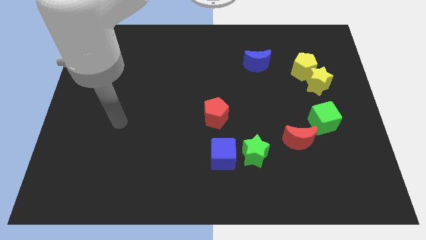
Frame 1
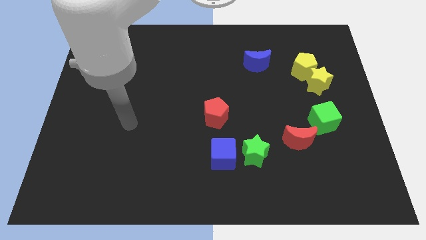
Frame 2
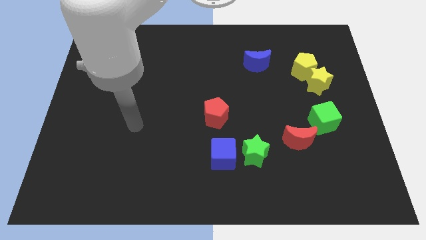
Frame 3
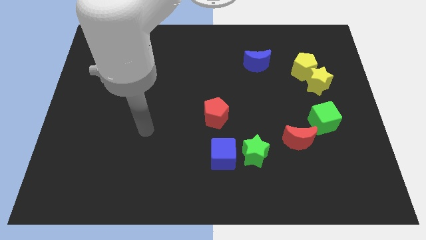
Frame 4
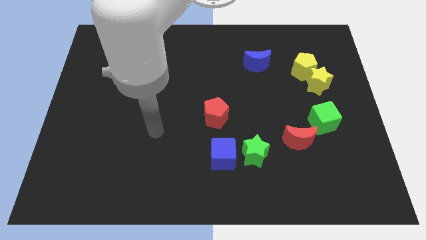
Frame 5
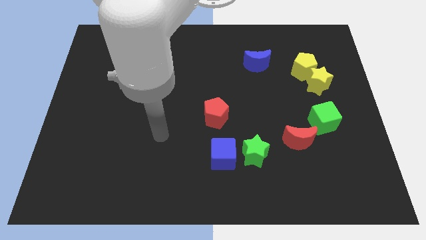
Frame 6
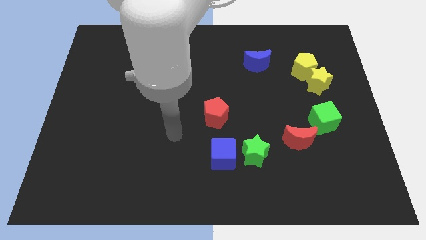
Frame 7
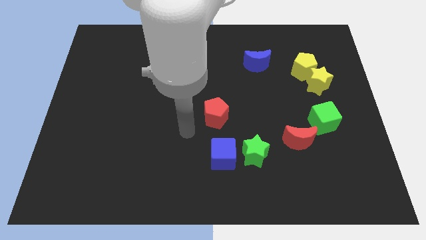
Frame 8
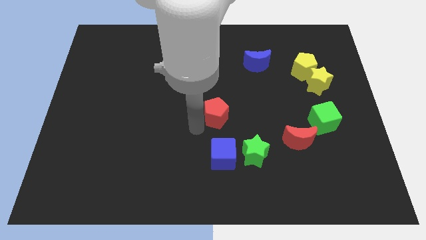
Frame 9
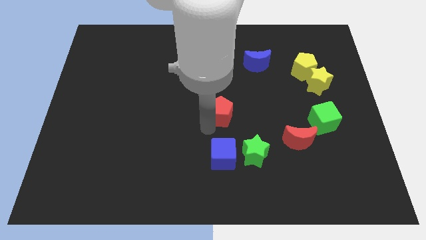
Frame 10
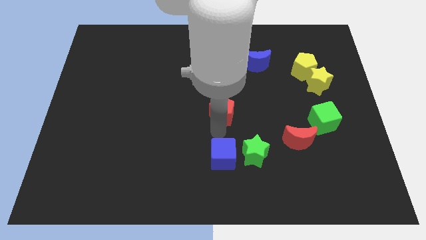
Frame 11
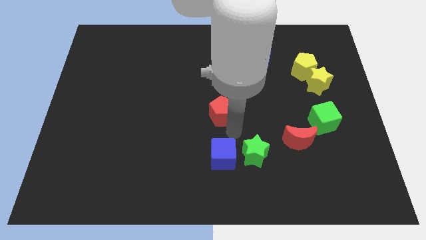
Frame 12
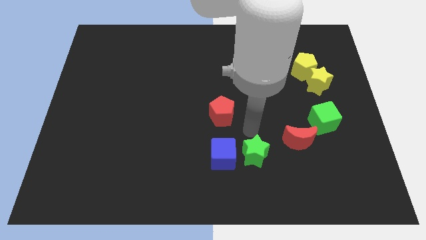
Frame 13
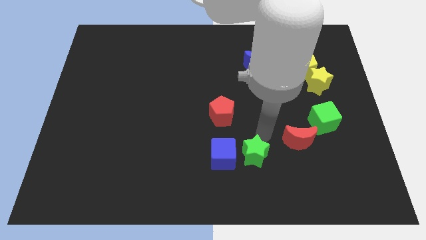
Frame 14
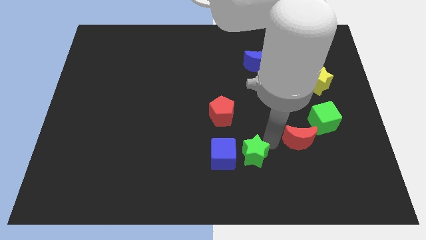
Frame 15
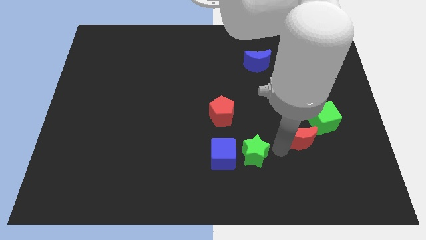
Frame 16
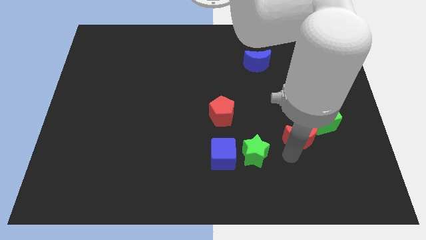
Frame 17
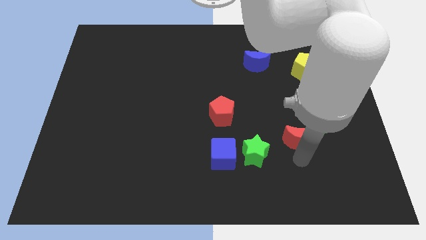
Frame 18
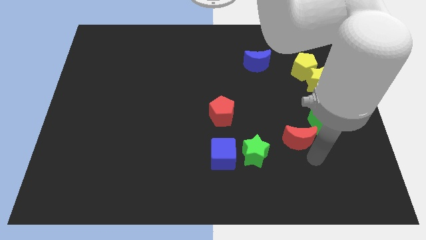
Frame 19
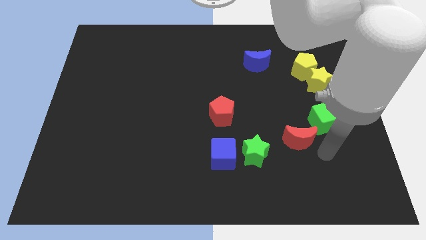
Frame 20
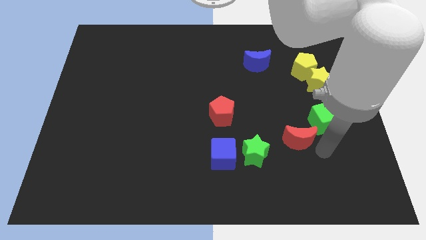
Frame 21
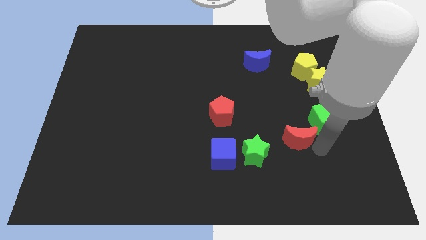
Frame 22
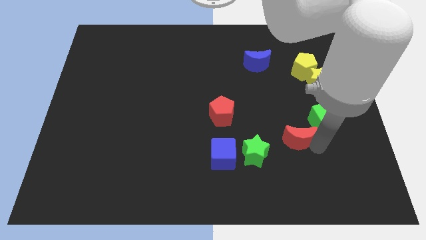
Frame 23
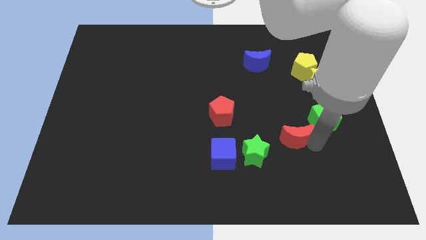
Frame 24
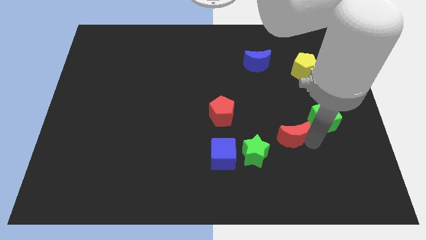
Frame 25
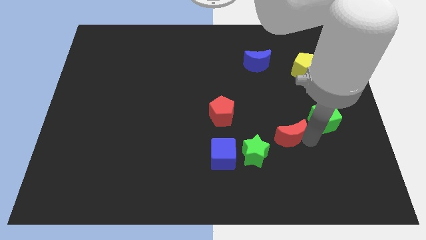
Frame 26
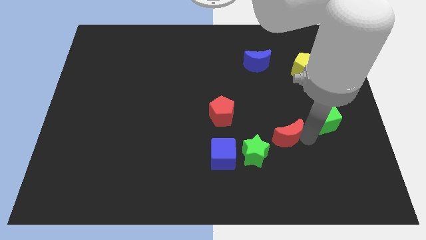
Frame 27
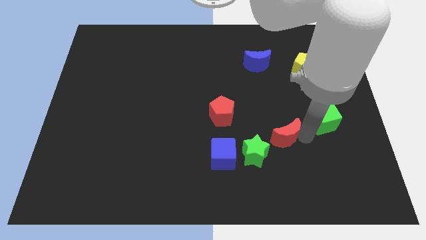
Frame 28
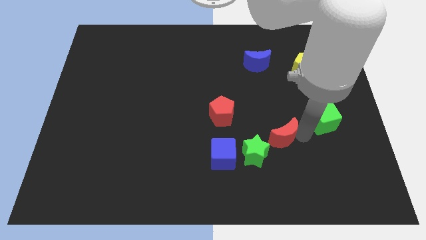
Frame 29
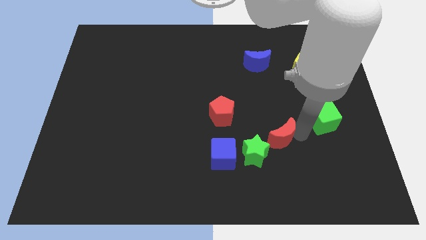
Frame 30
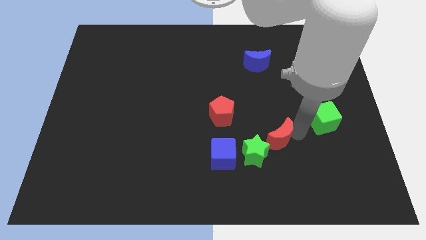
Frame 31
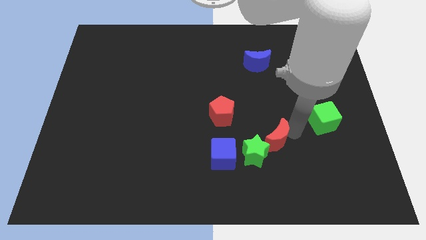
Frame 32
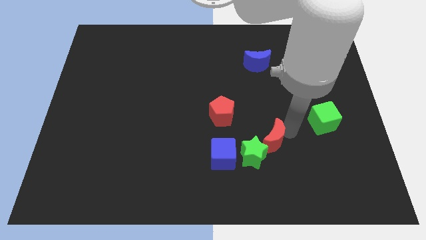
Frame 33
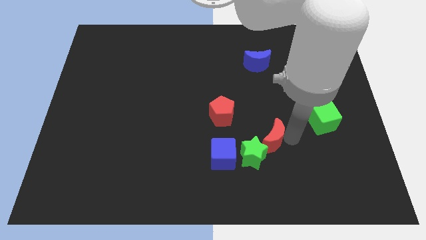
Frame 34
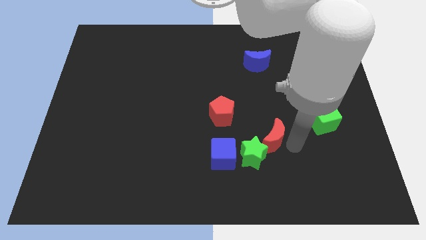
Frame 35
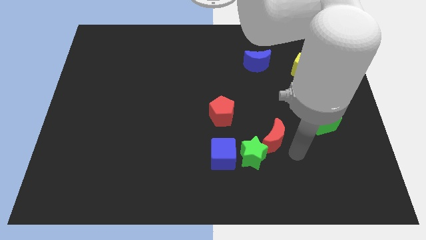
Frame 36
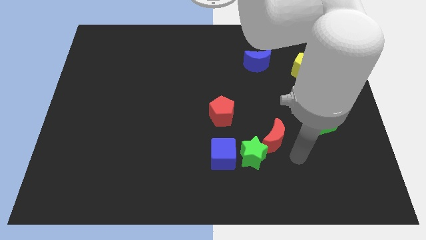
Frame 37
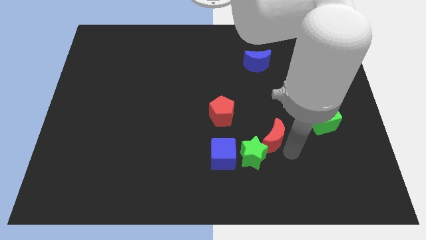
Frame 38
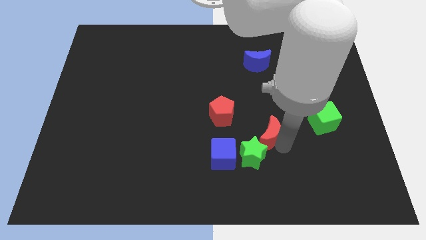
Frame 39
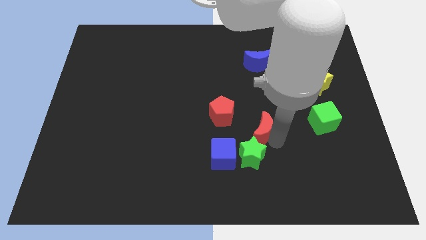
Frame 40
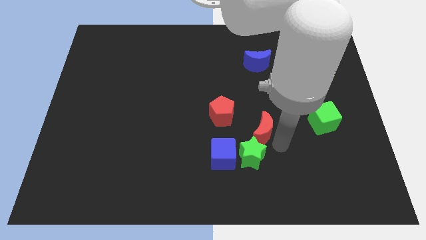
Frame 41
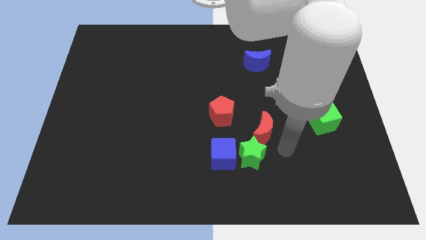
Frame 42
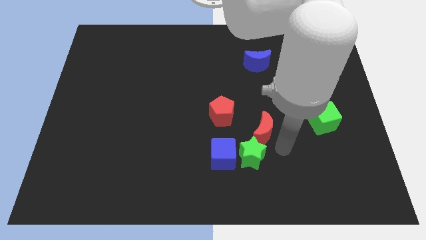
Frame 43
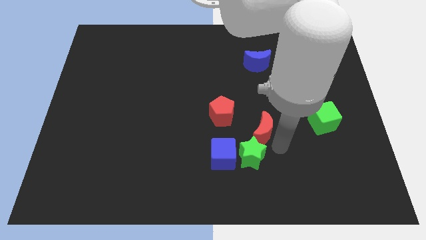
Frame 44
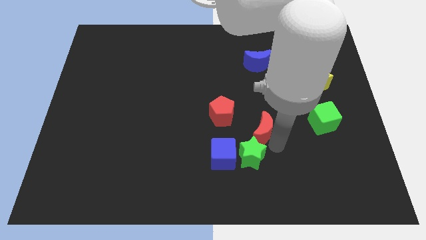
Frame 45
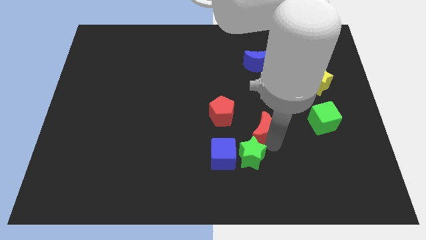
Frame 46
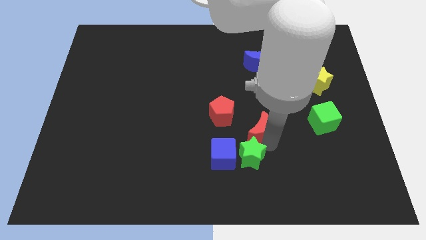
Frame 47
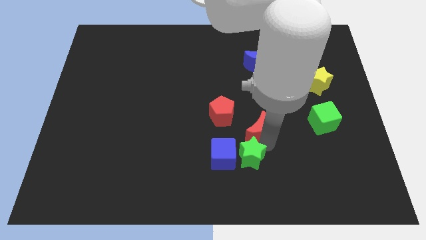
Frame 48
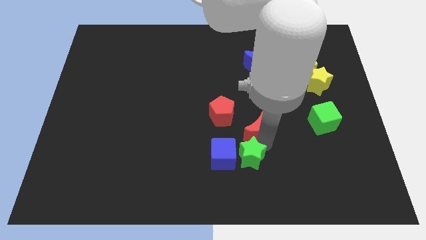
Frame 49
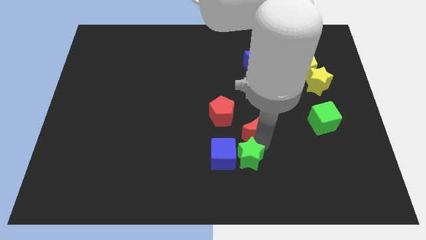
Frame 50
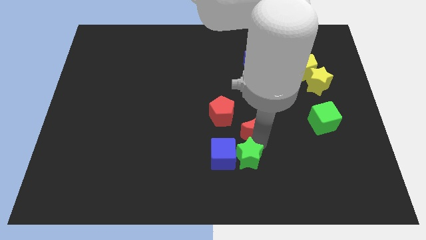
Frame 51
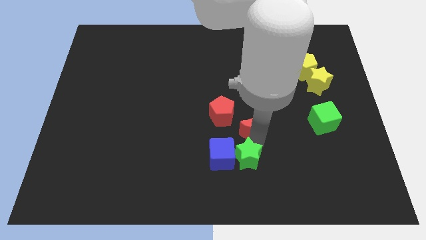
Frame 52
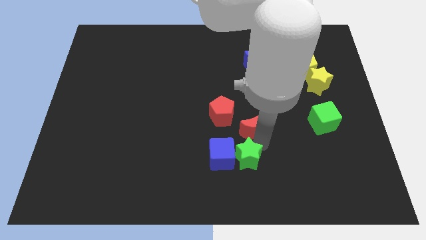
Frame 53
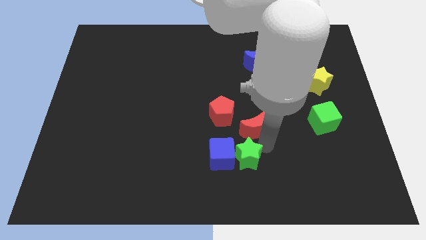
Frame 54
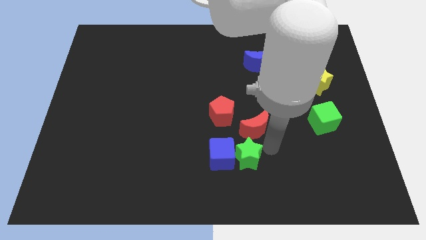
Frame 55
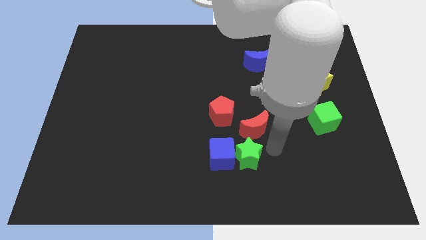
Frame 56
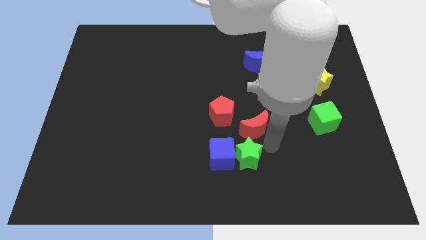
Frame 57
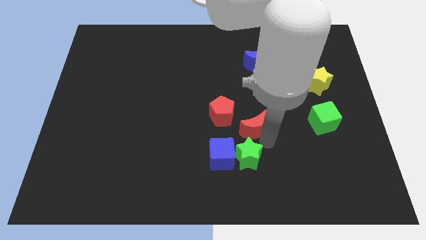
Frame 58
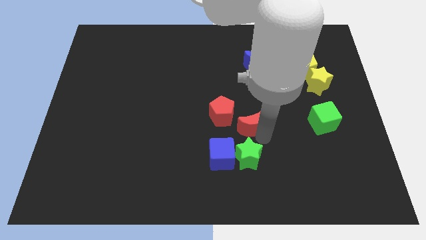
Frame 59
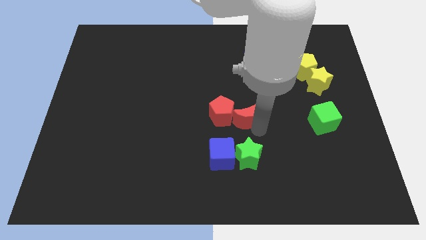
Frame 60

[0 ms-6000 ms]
push the red moon close to the red pentagon

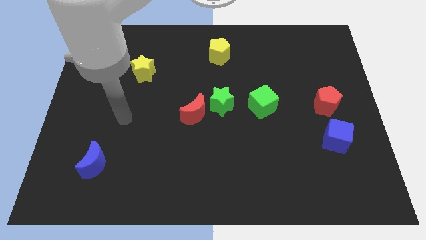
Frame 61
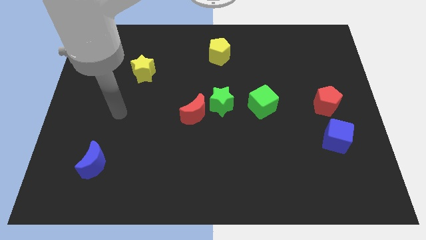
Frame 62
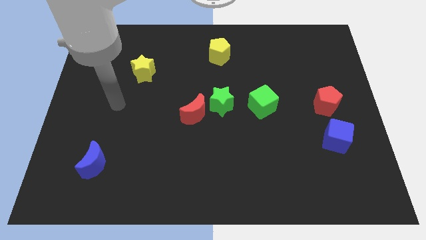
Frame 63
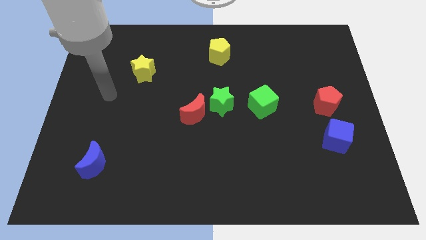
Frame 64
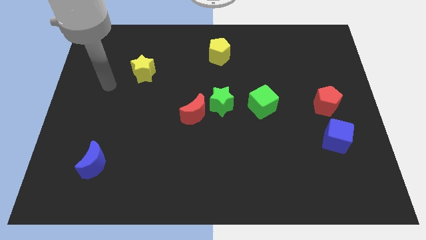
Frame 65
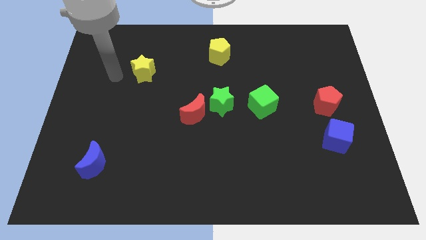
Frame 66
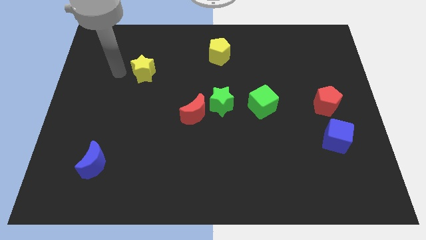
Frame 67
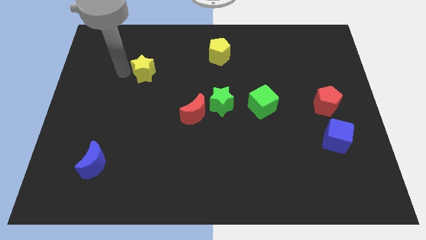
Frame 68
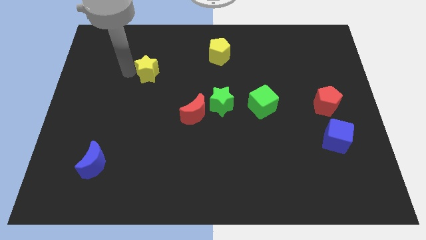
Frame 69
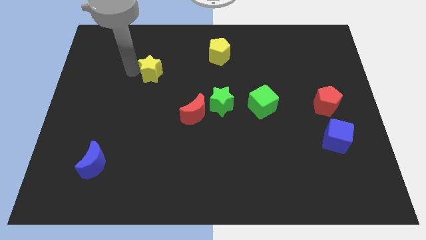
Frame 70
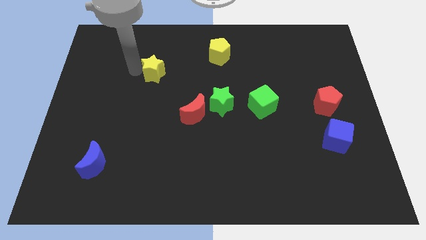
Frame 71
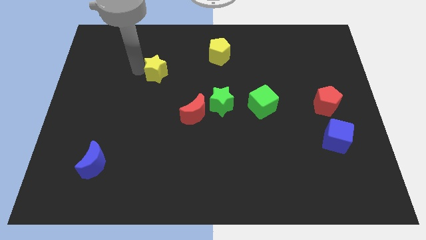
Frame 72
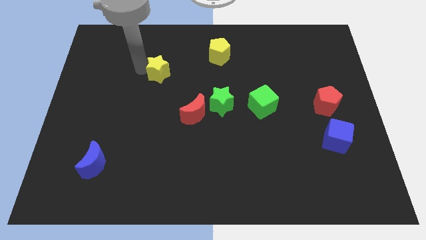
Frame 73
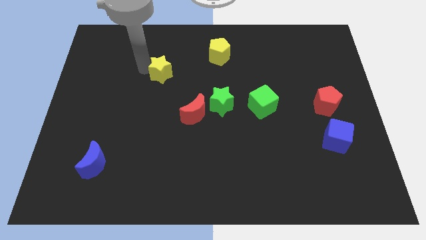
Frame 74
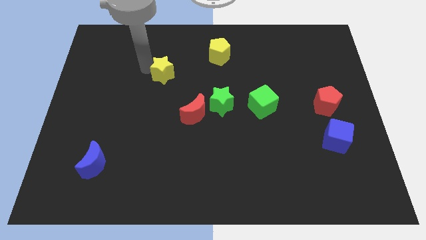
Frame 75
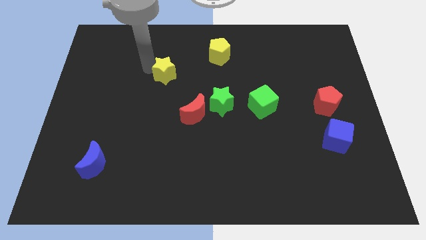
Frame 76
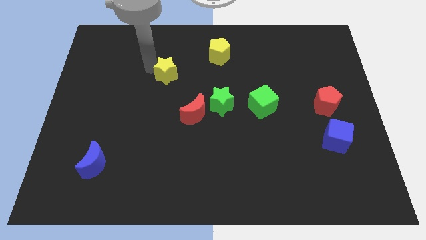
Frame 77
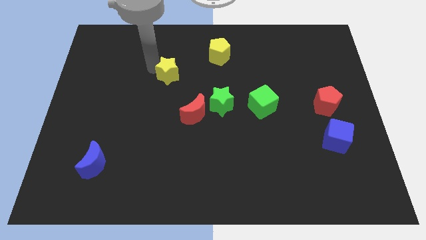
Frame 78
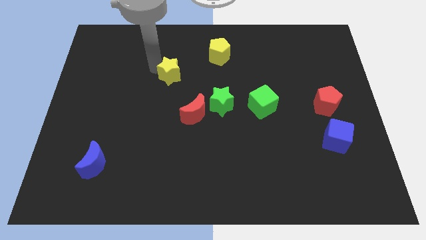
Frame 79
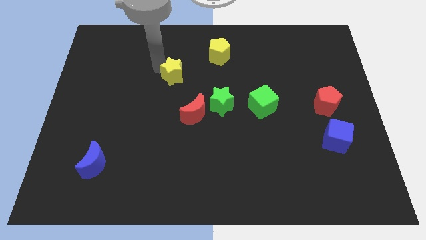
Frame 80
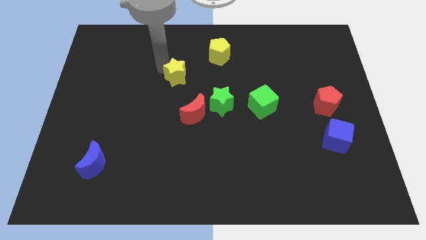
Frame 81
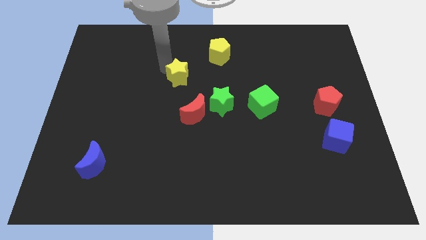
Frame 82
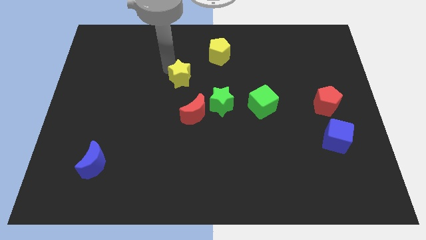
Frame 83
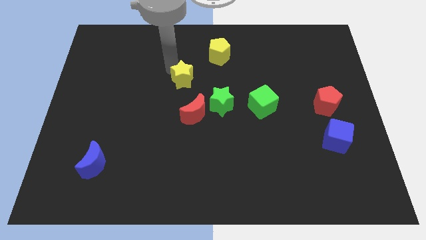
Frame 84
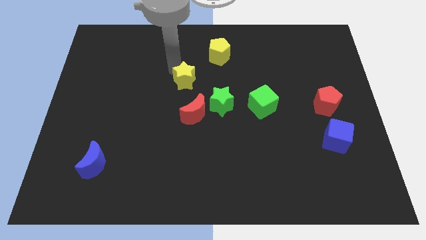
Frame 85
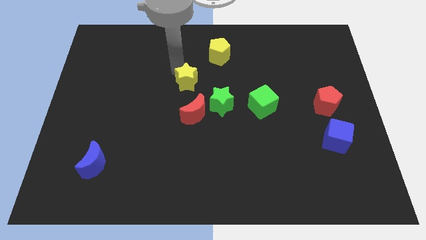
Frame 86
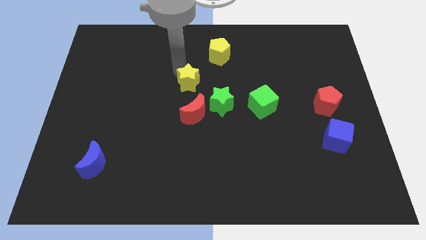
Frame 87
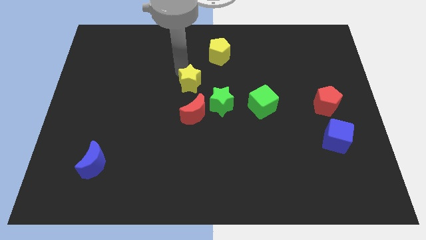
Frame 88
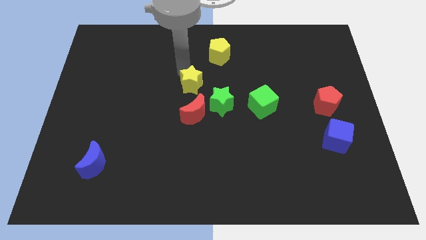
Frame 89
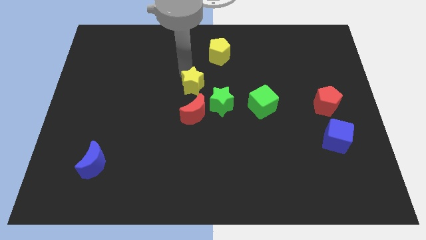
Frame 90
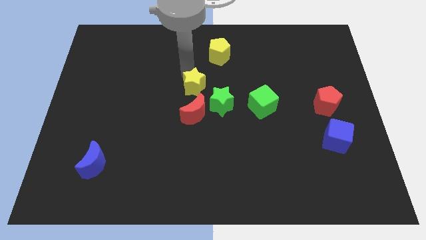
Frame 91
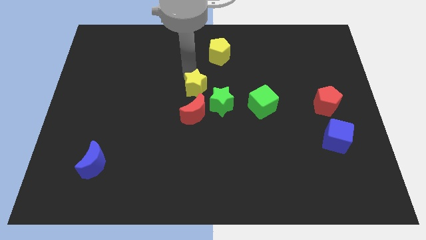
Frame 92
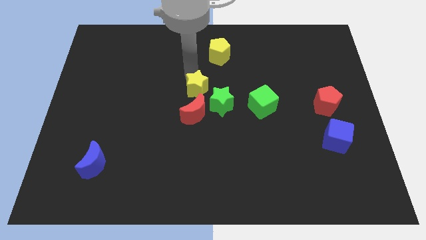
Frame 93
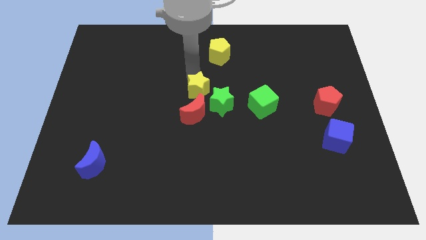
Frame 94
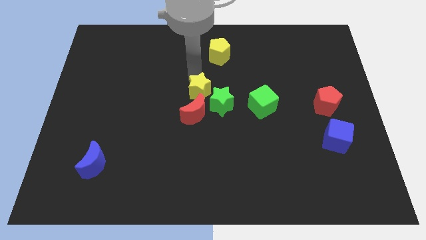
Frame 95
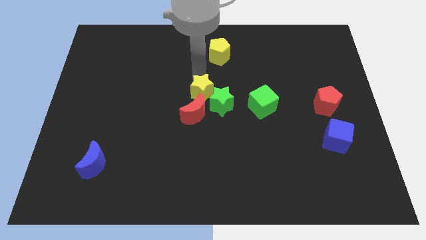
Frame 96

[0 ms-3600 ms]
put the yellow star next to the green star
